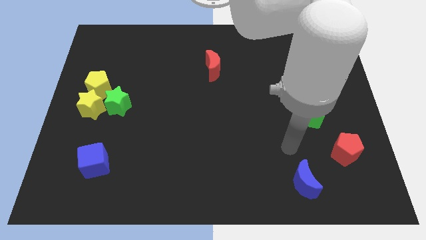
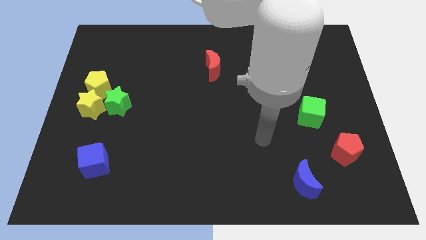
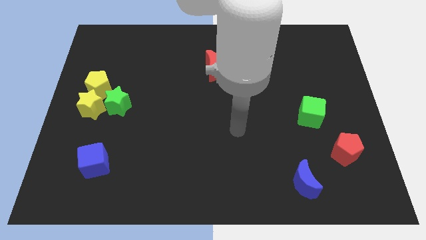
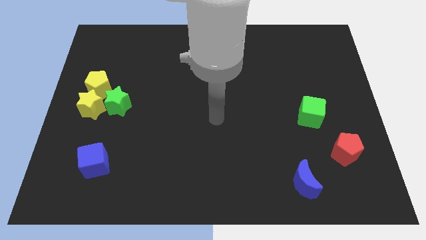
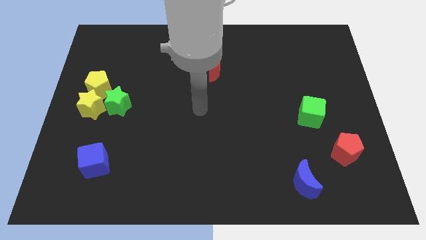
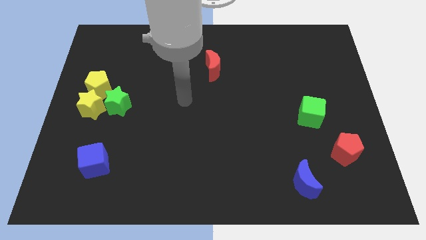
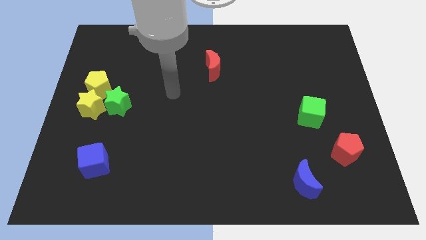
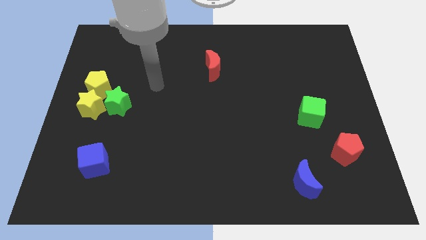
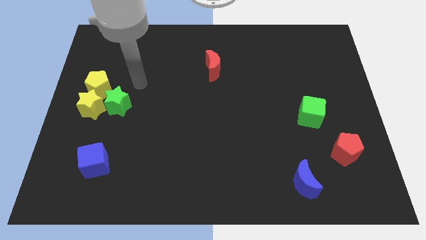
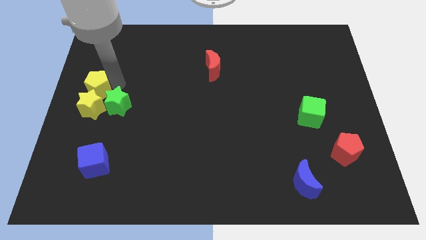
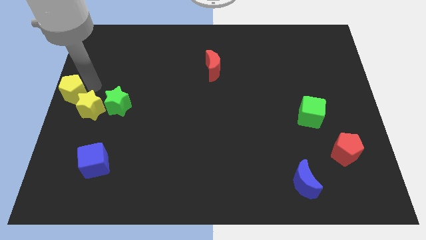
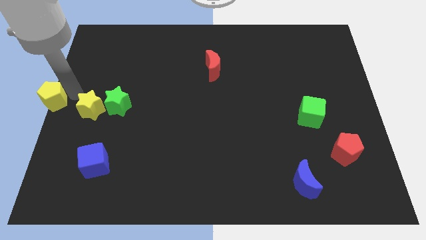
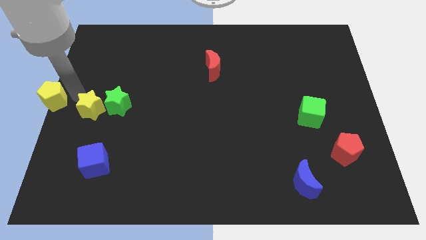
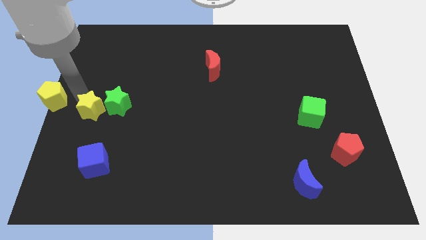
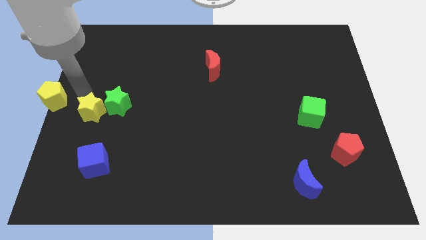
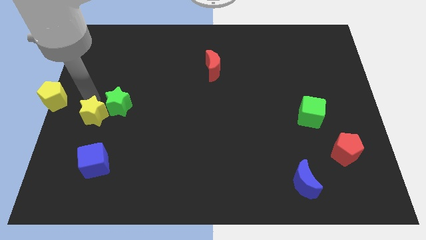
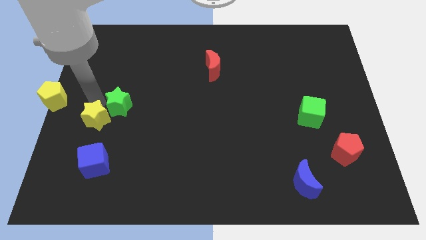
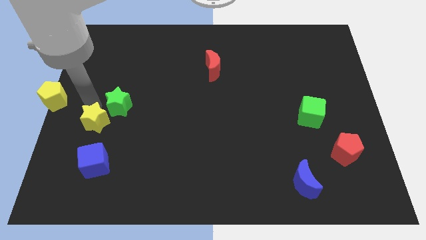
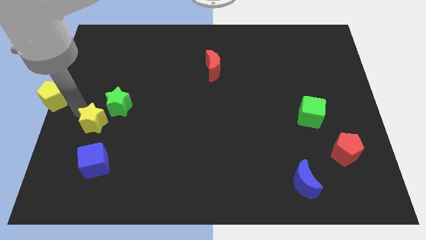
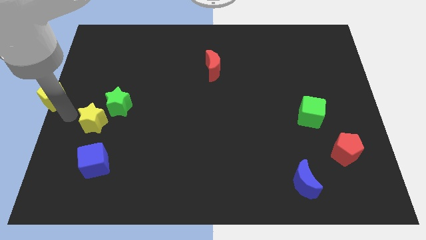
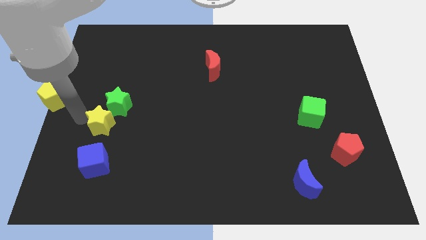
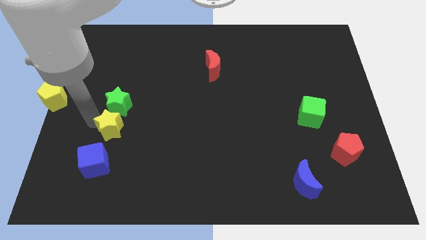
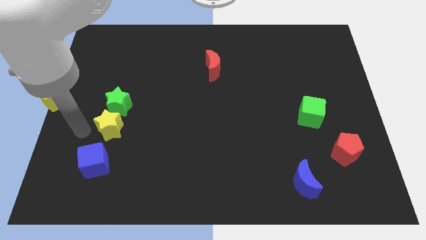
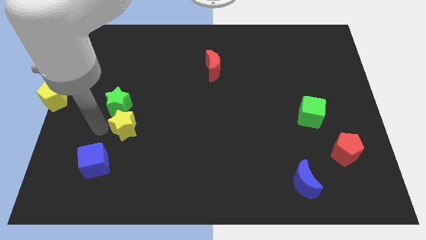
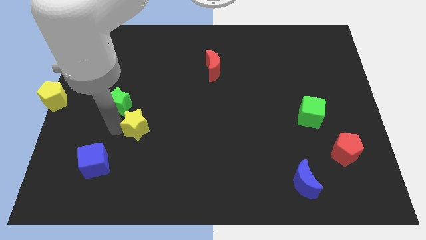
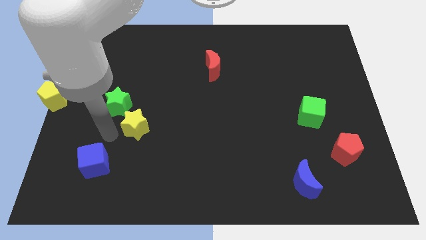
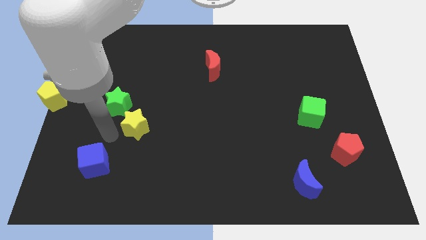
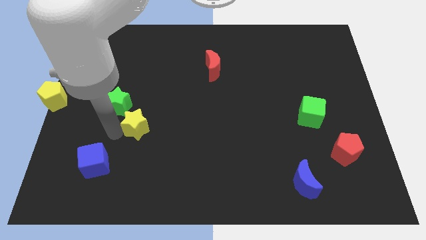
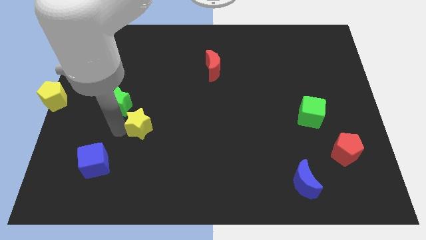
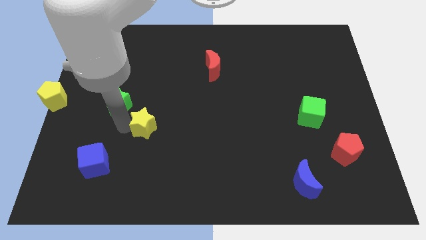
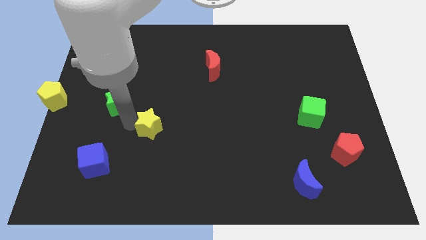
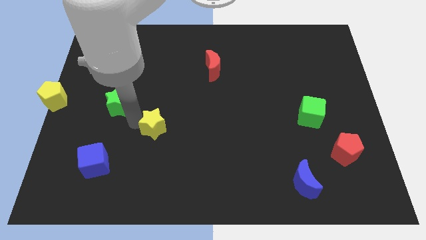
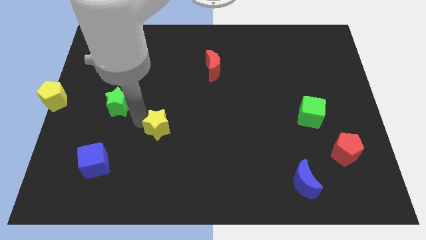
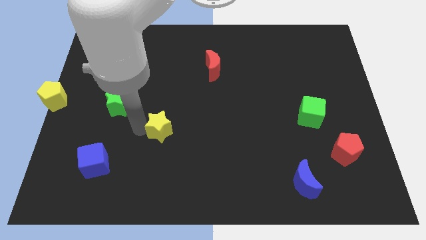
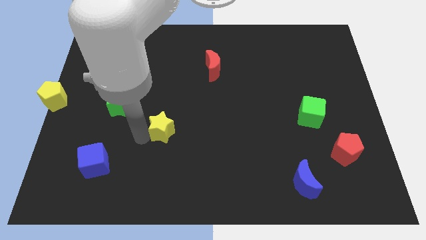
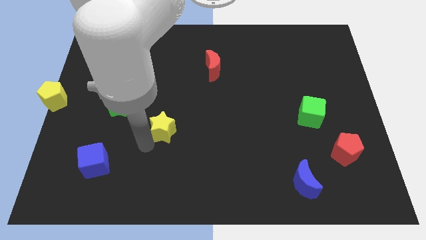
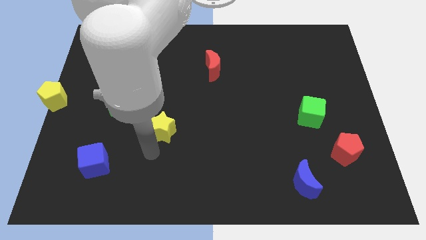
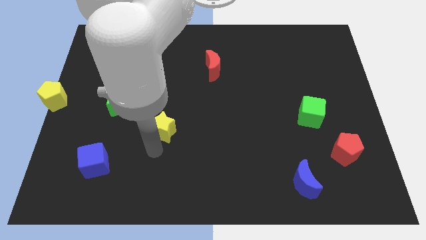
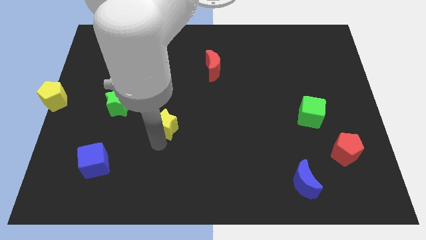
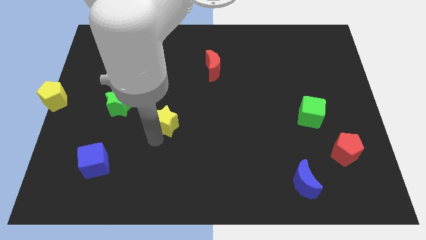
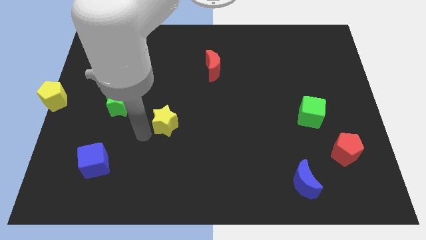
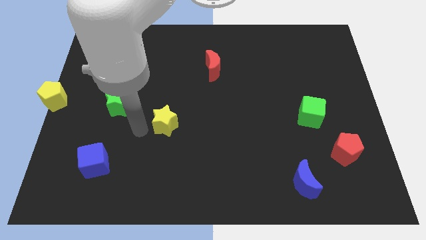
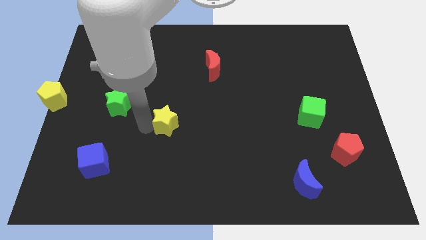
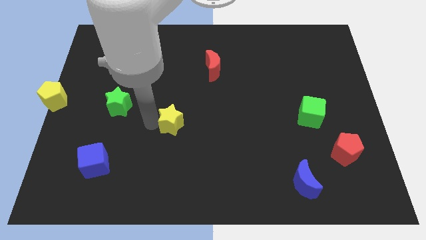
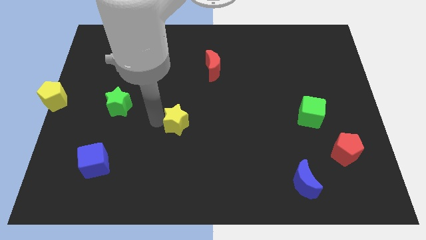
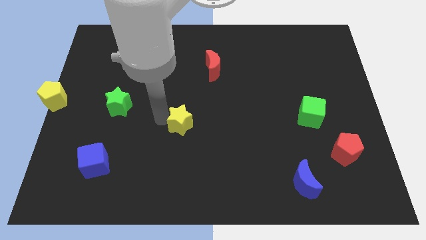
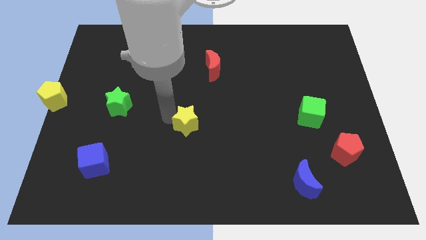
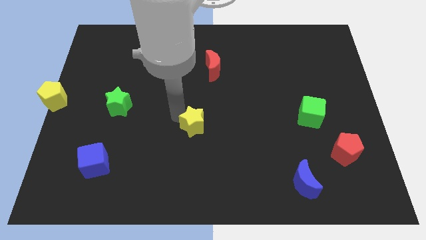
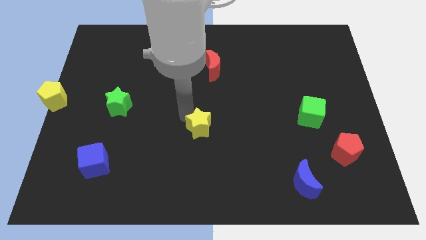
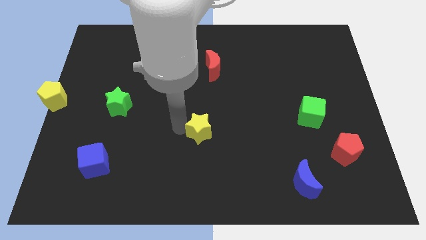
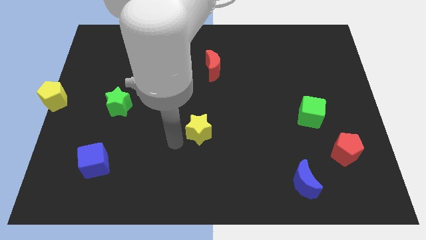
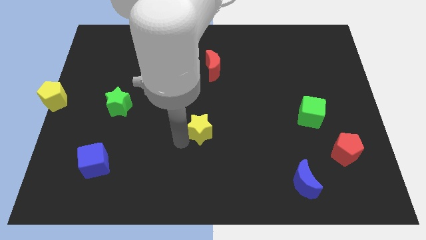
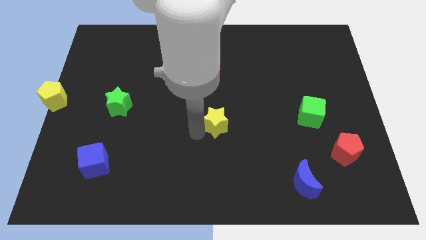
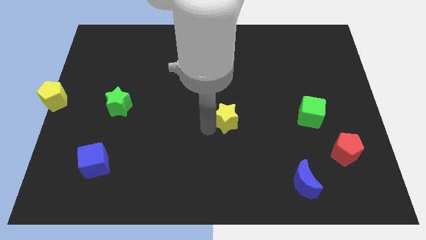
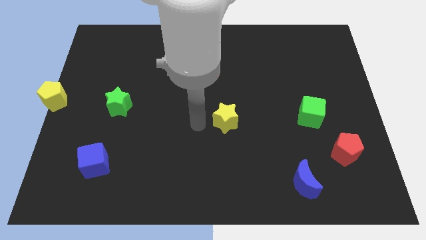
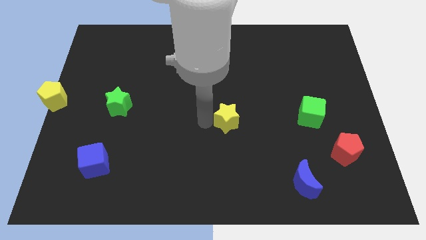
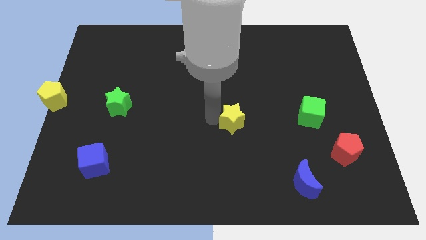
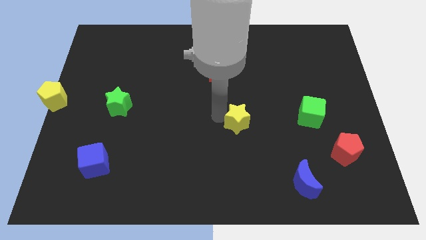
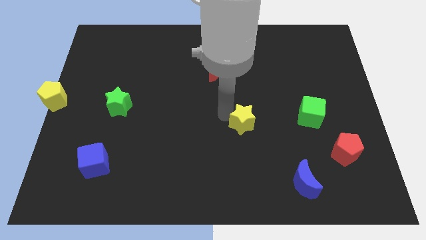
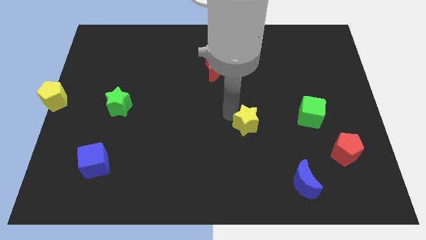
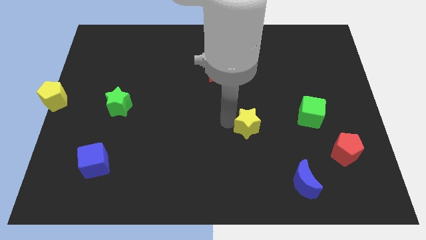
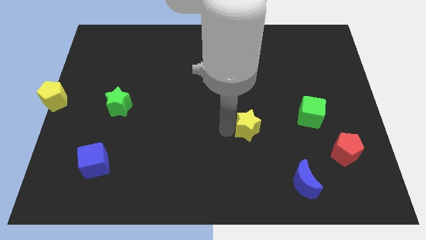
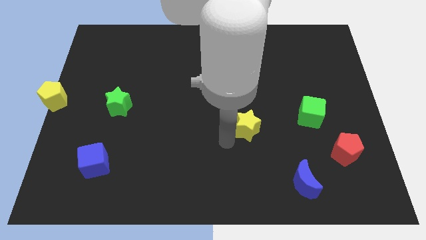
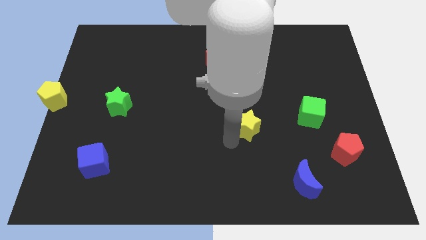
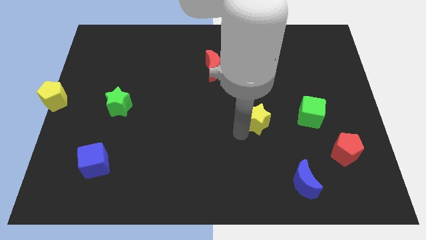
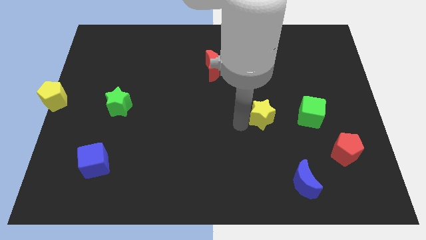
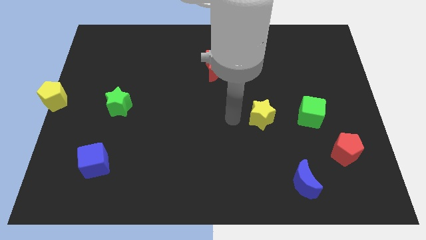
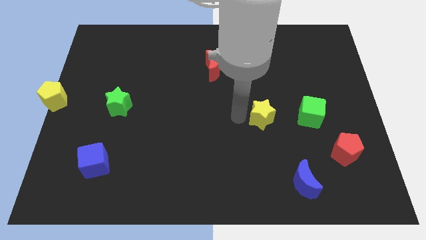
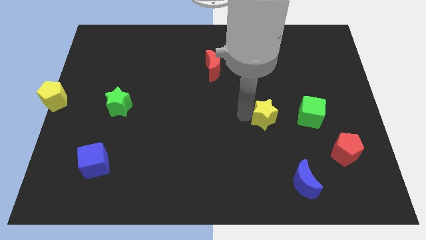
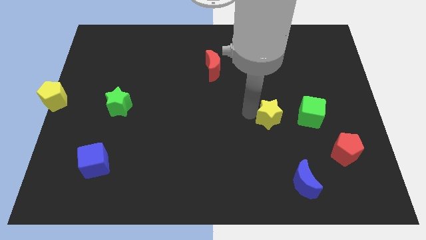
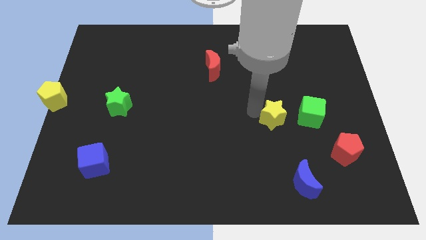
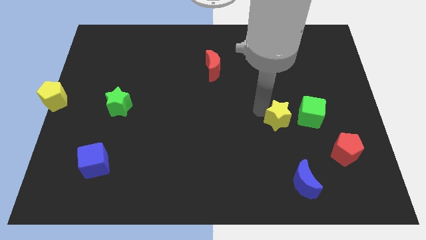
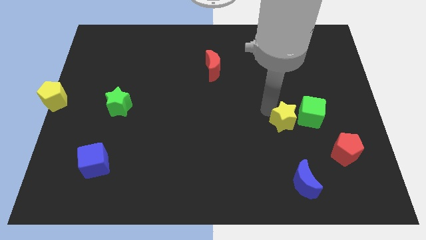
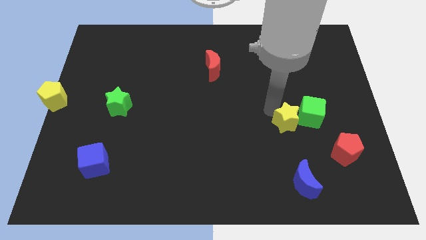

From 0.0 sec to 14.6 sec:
push the yellow star close to the green cube
